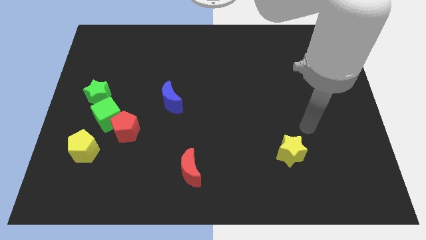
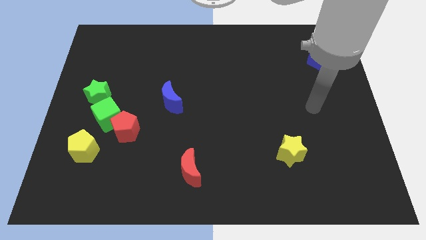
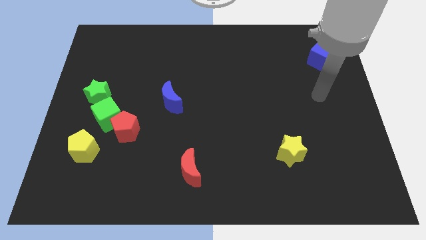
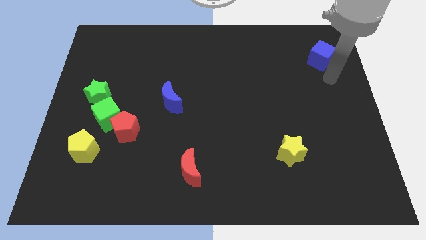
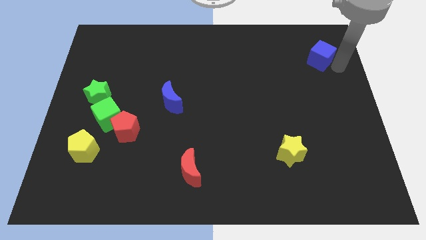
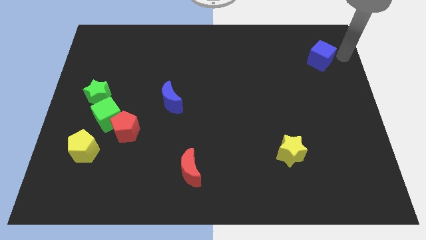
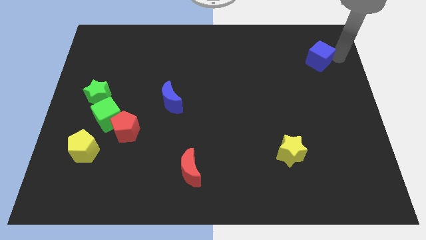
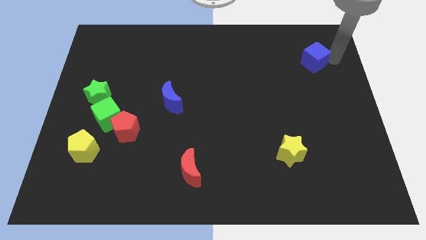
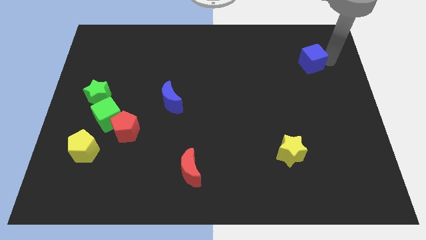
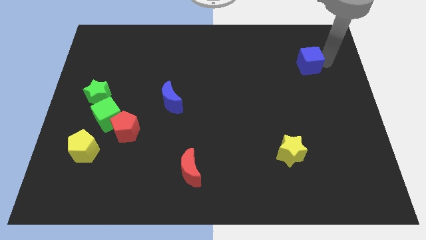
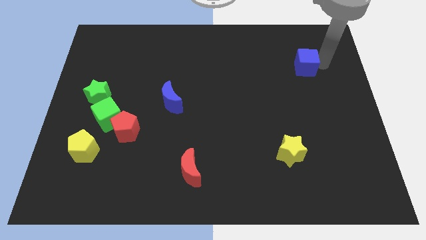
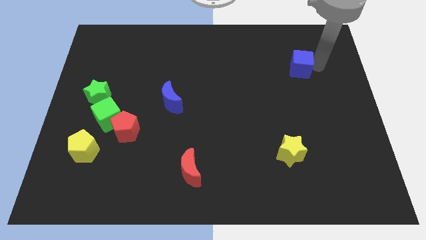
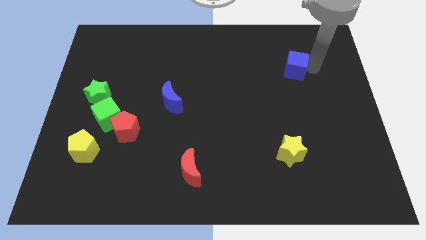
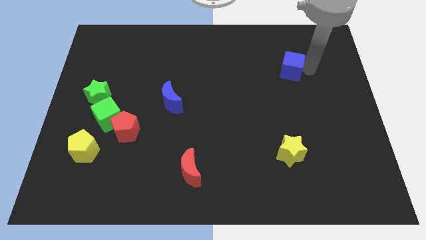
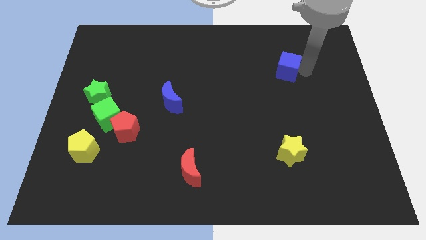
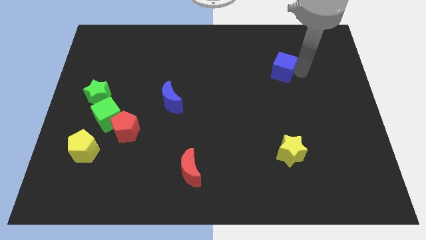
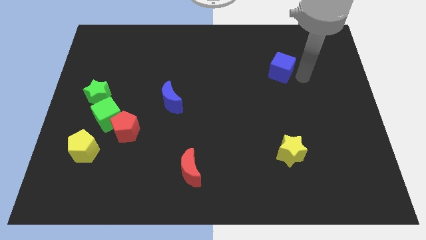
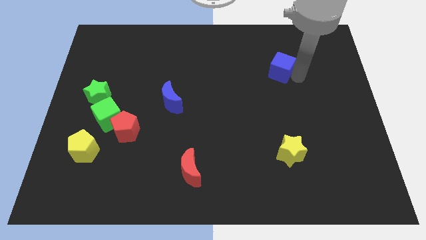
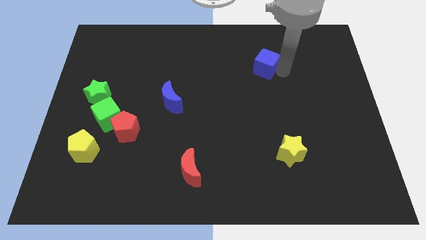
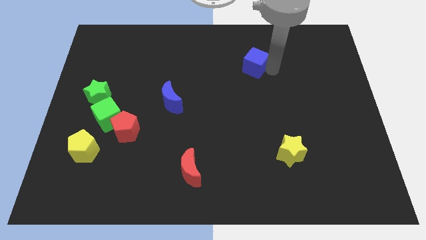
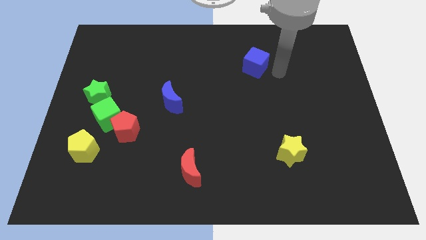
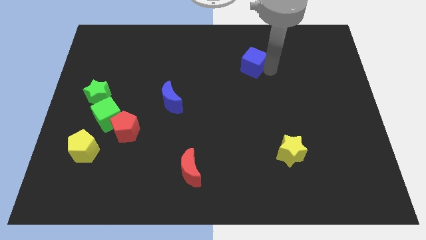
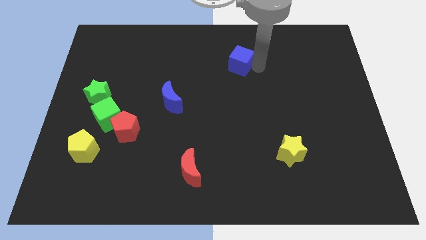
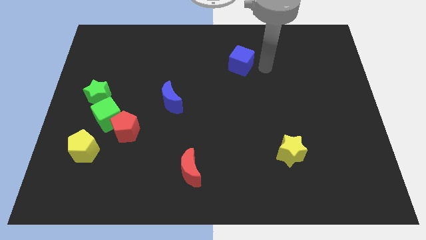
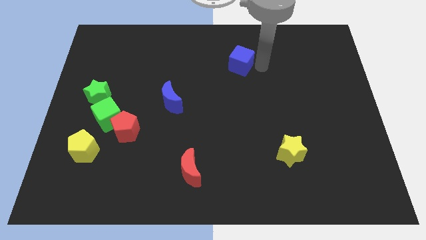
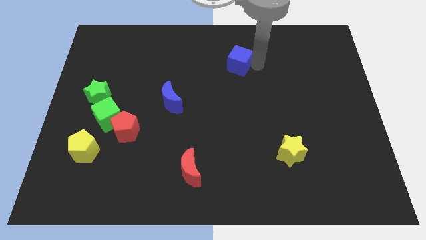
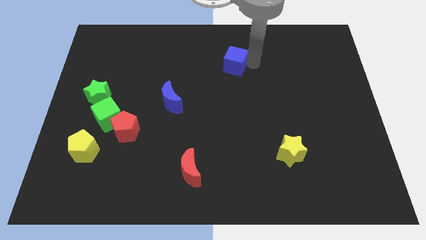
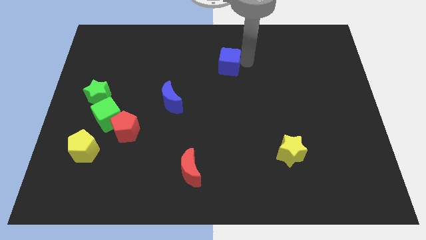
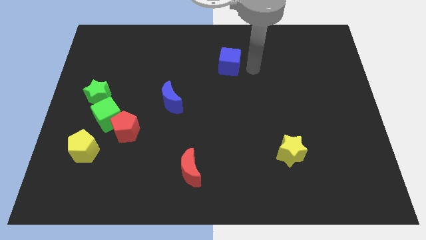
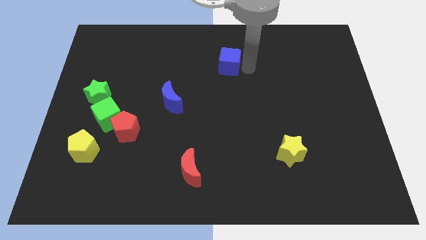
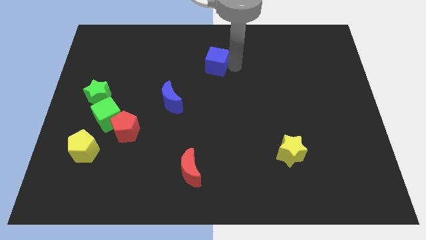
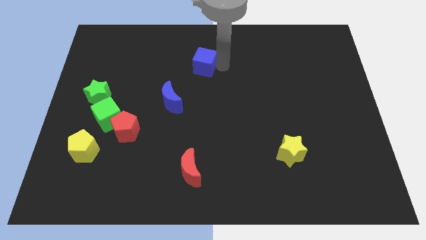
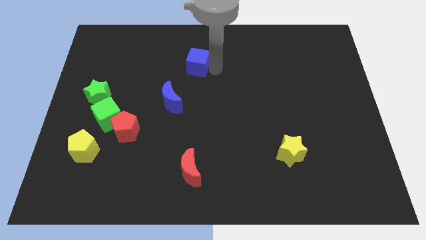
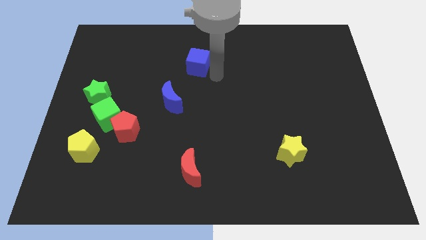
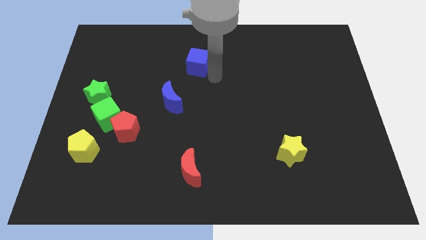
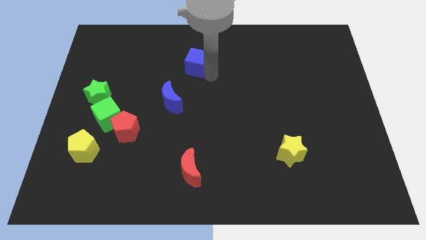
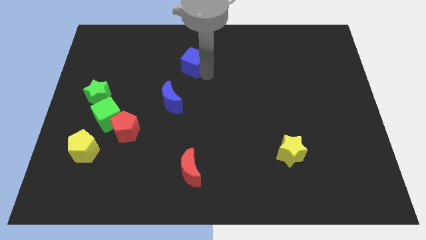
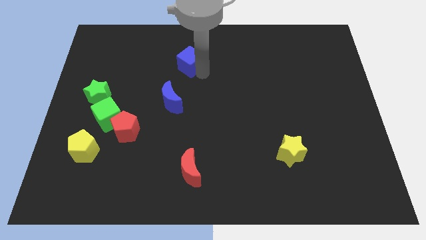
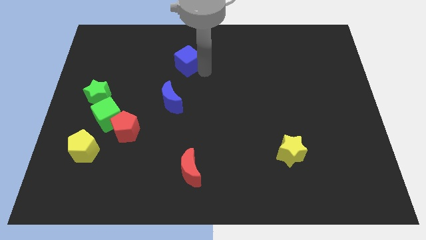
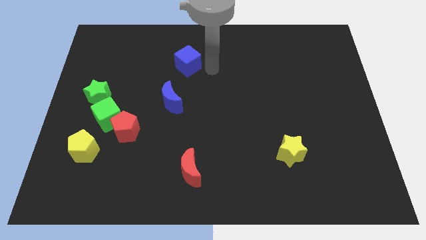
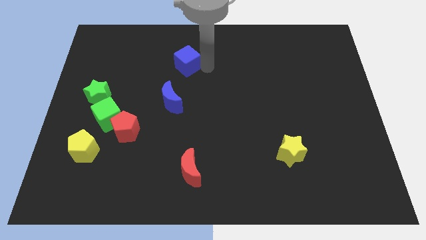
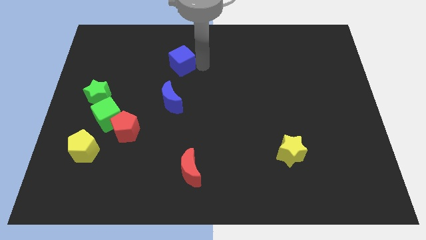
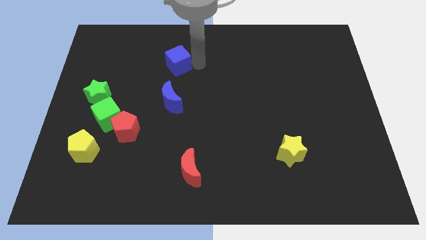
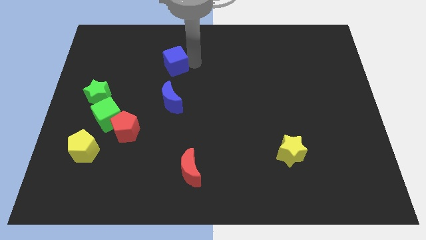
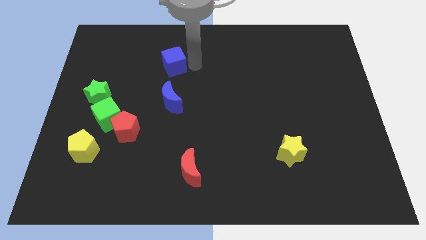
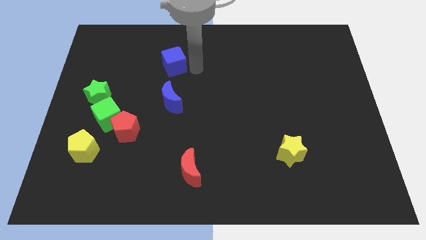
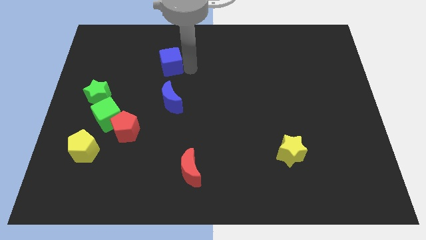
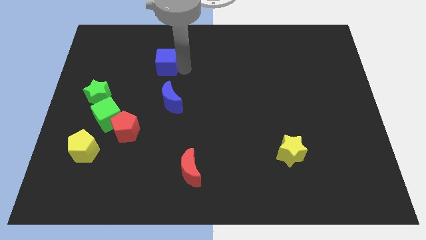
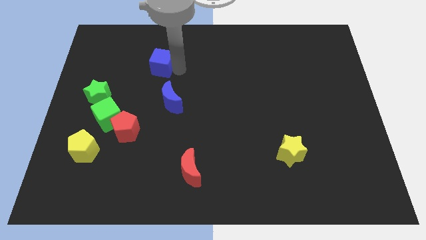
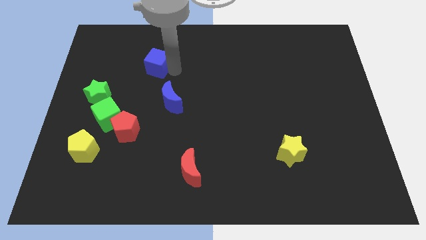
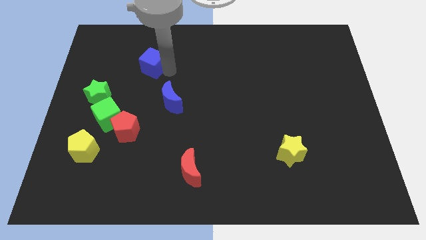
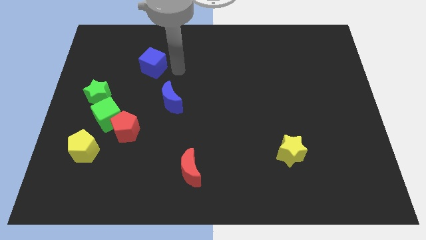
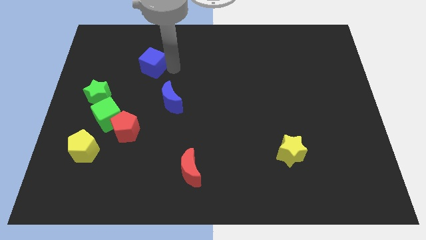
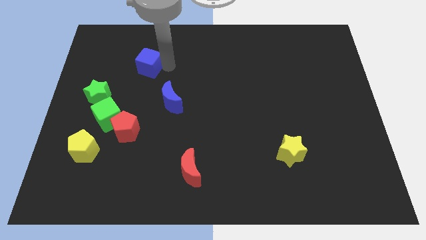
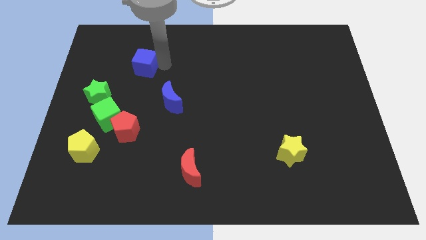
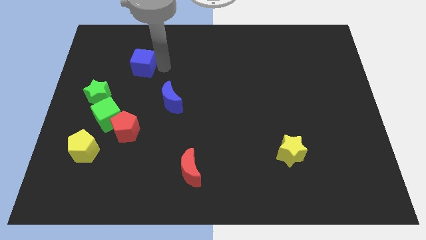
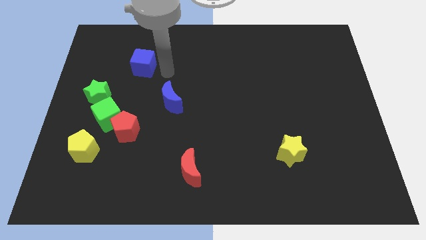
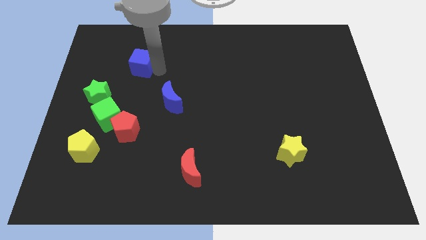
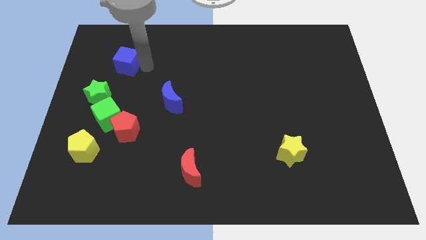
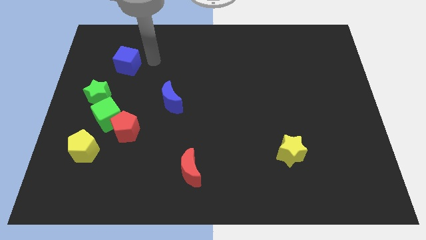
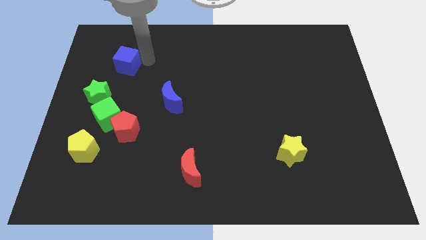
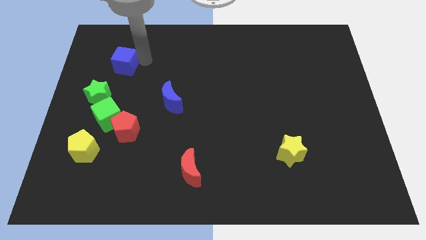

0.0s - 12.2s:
move the blue cube to the top of the green star

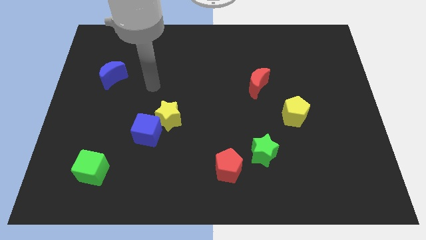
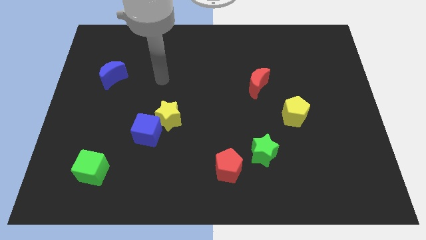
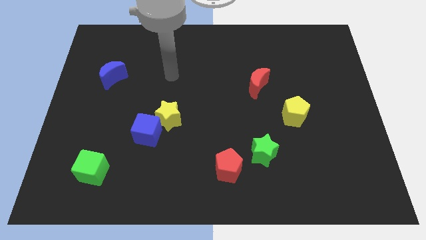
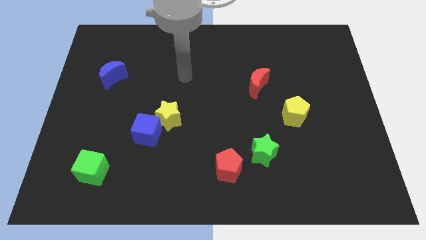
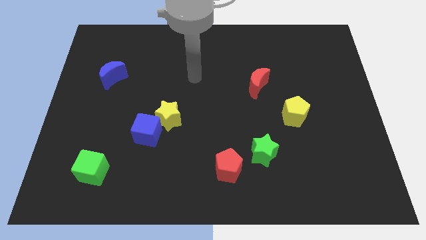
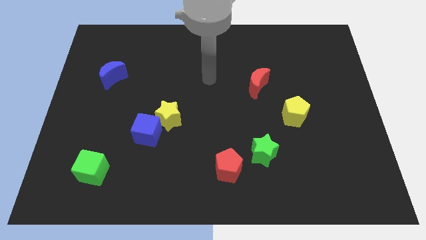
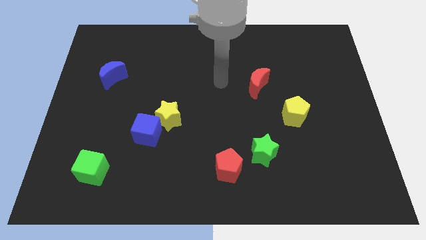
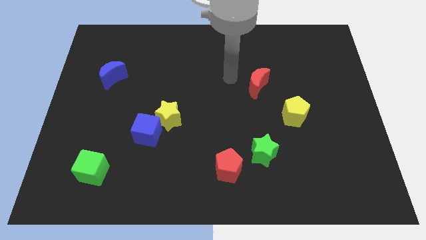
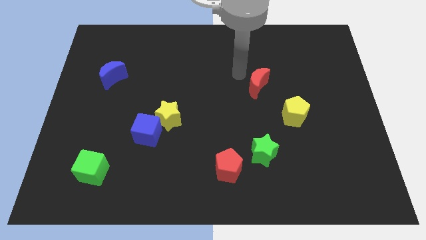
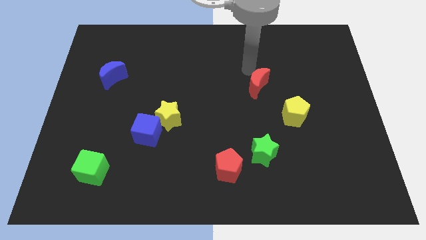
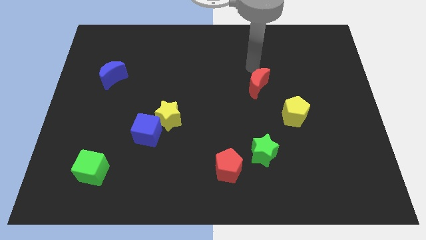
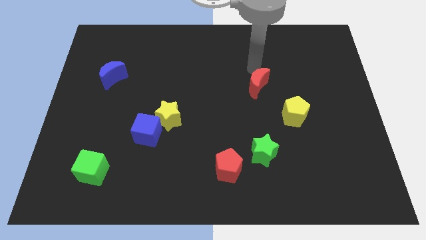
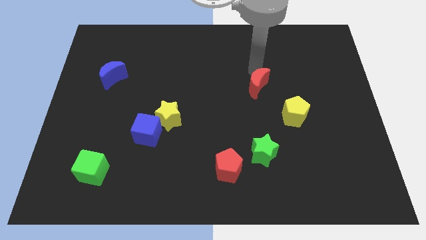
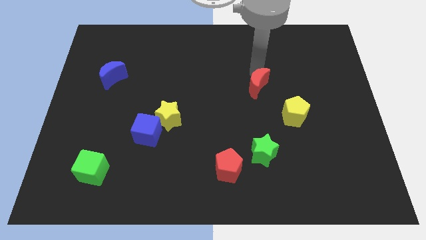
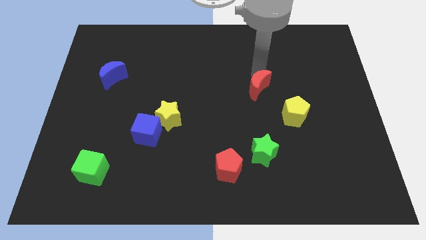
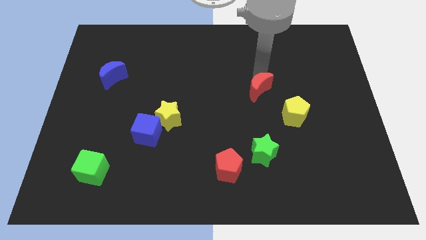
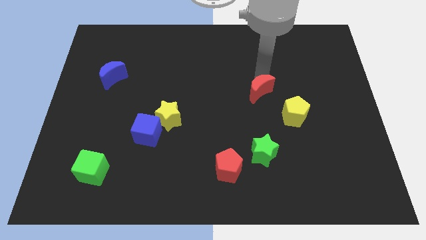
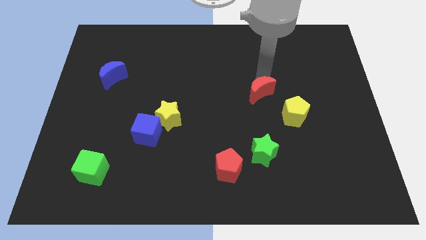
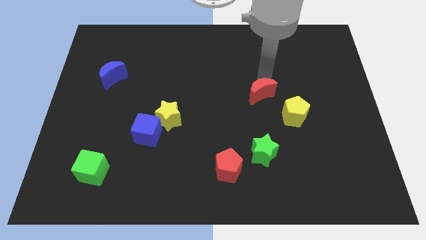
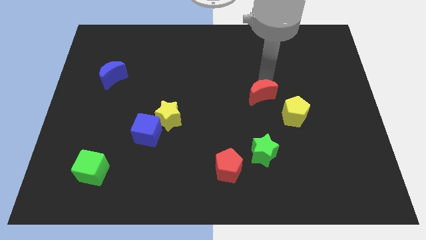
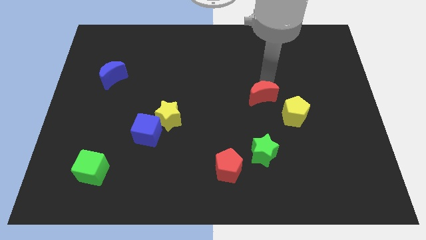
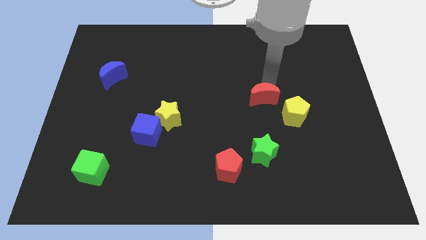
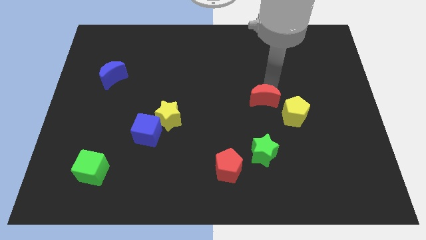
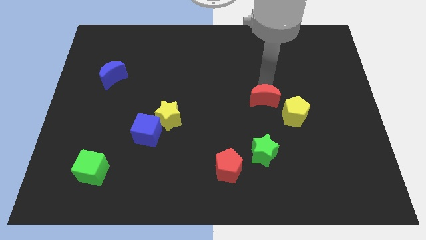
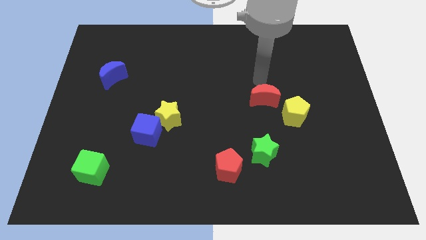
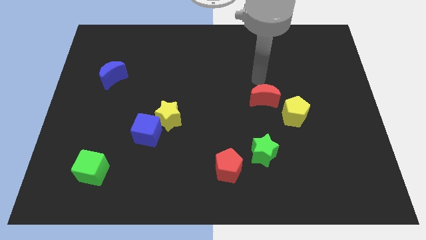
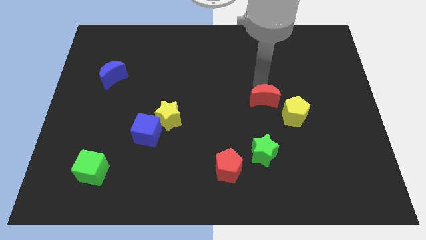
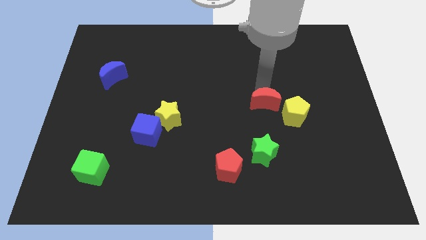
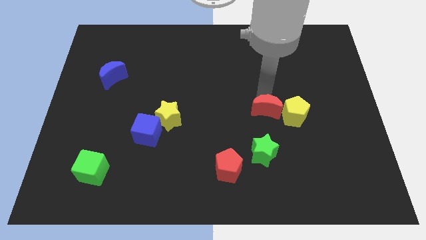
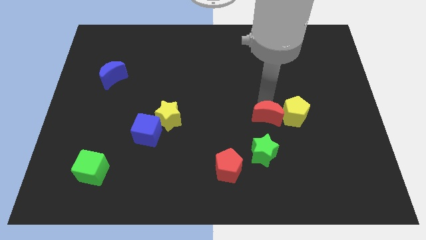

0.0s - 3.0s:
push the red moon to the bottom left side of the yellow pentagon
